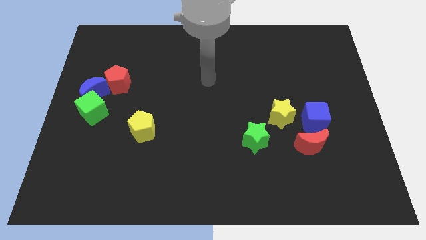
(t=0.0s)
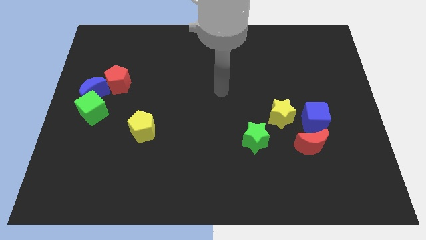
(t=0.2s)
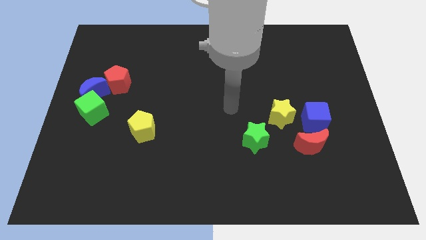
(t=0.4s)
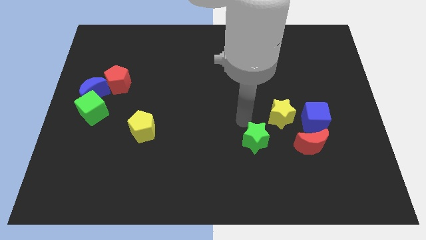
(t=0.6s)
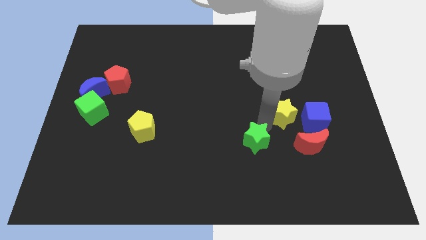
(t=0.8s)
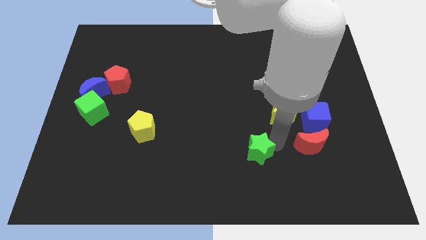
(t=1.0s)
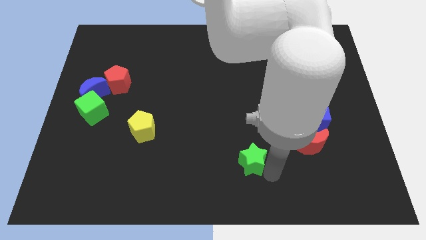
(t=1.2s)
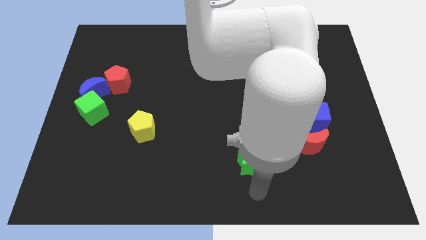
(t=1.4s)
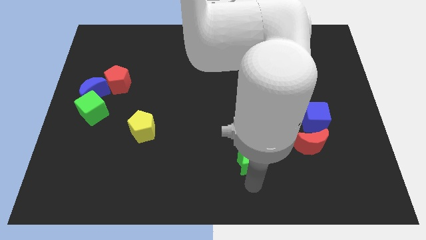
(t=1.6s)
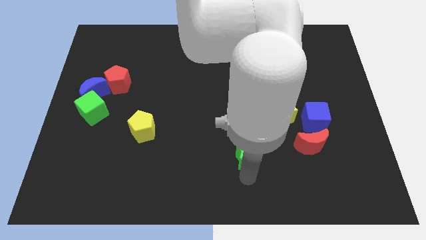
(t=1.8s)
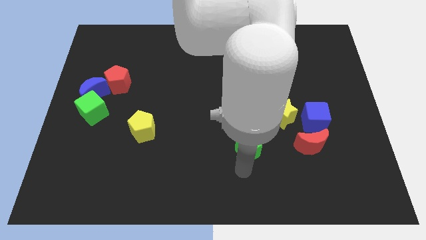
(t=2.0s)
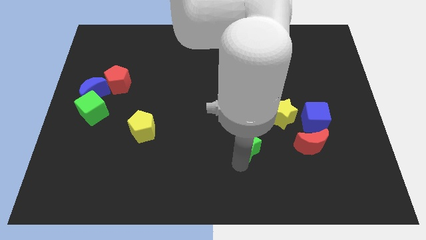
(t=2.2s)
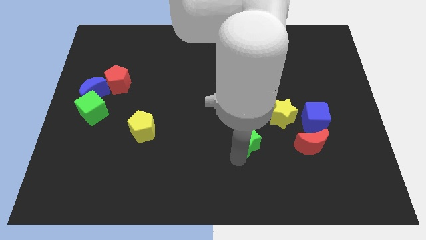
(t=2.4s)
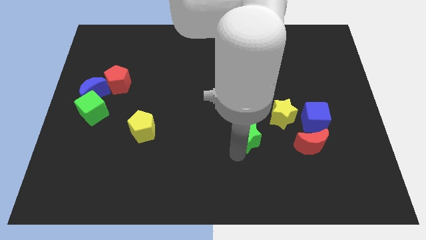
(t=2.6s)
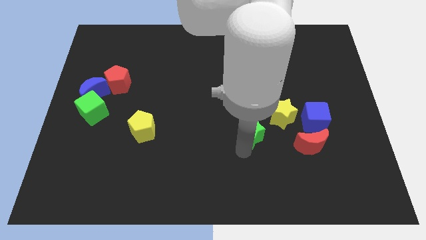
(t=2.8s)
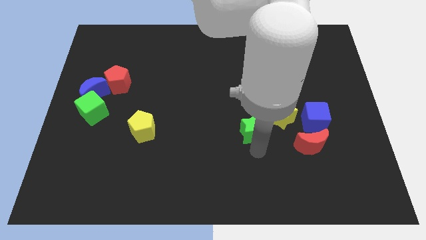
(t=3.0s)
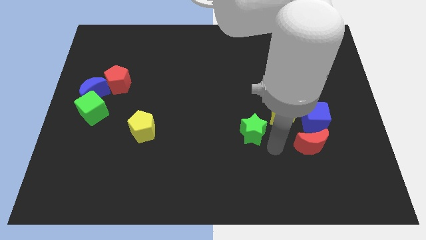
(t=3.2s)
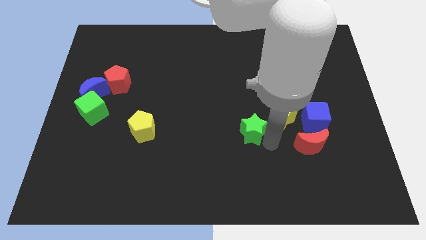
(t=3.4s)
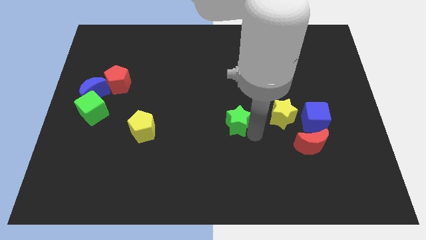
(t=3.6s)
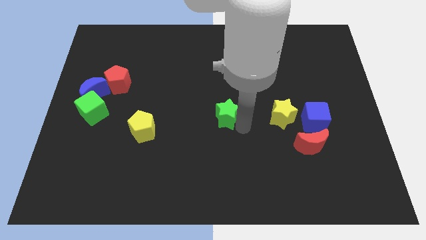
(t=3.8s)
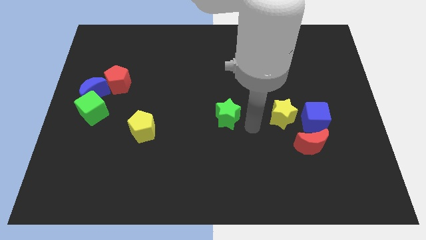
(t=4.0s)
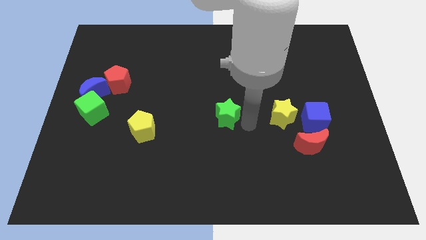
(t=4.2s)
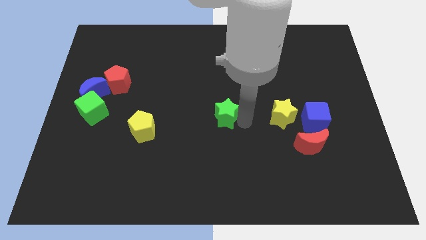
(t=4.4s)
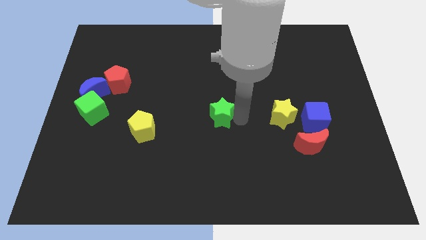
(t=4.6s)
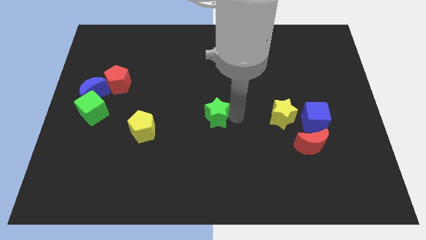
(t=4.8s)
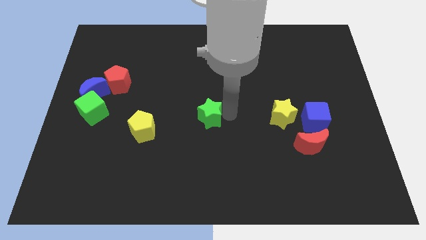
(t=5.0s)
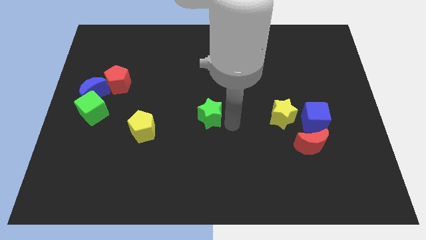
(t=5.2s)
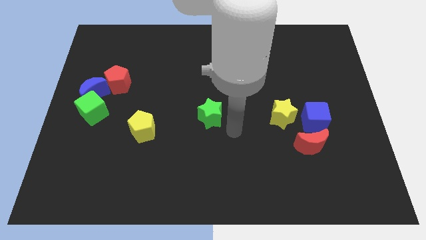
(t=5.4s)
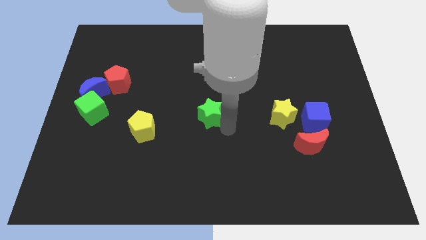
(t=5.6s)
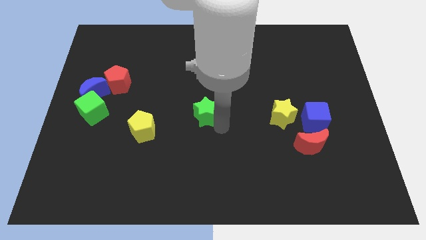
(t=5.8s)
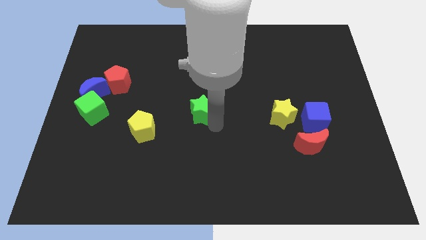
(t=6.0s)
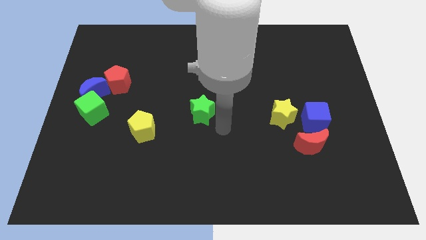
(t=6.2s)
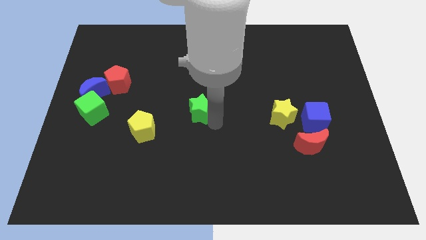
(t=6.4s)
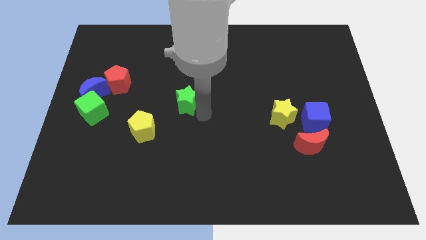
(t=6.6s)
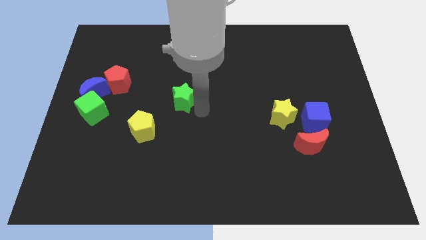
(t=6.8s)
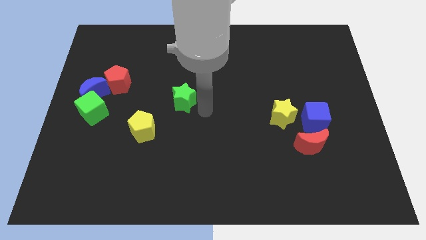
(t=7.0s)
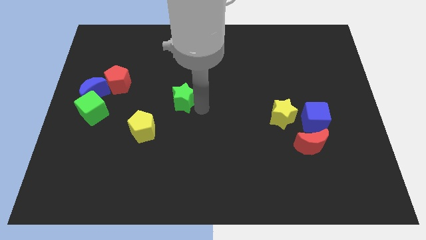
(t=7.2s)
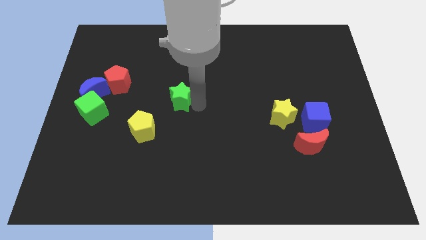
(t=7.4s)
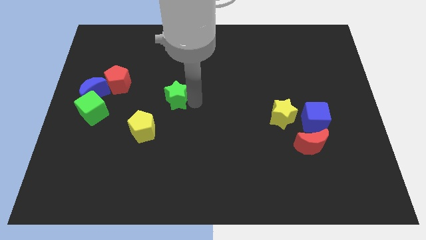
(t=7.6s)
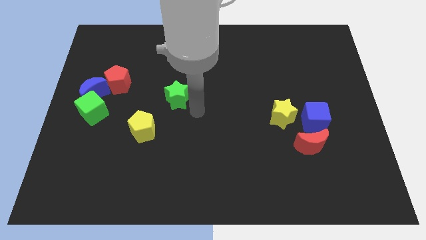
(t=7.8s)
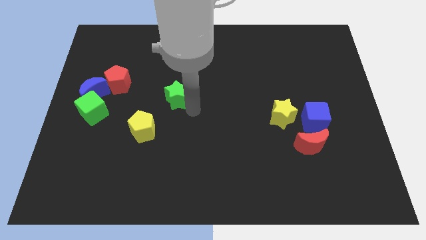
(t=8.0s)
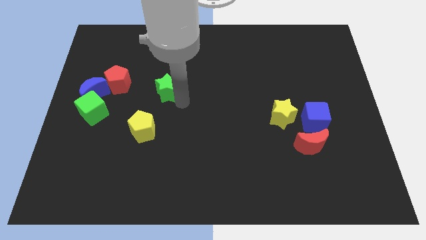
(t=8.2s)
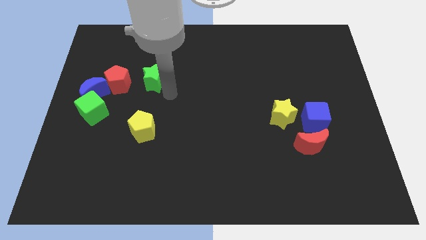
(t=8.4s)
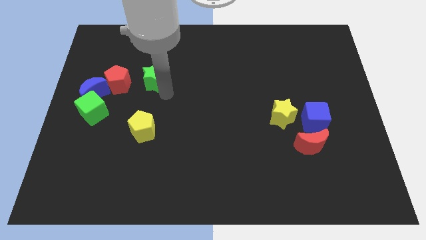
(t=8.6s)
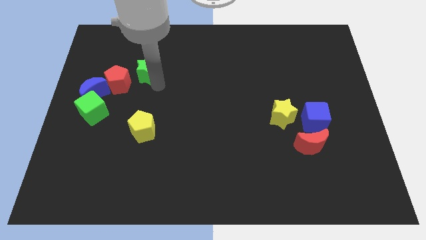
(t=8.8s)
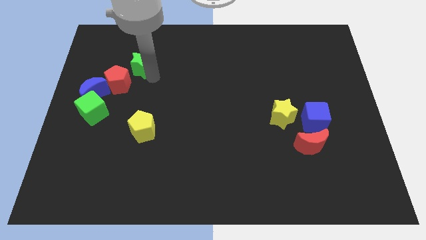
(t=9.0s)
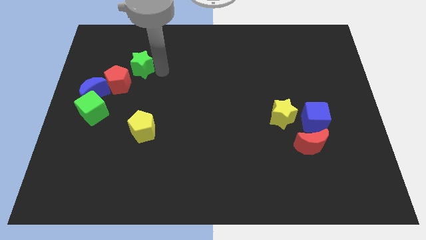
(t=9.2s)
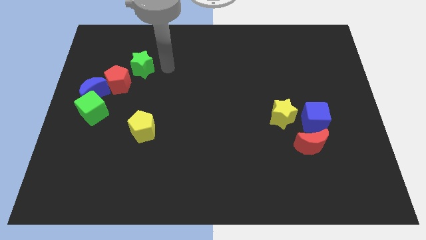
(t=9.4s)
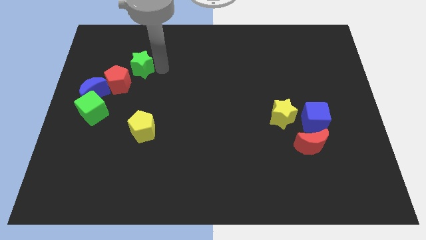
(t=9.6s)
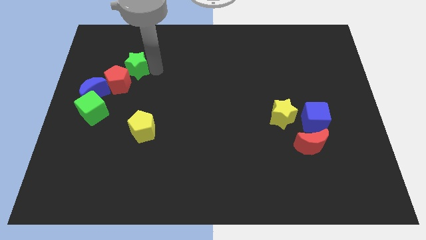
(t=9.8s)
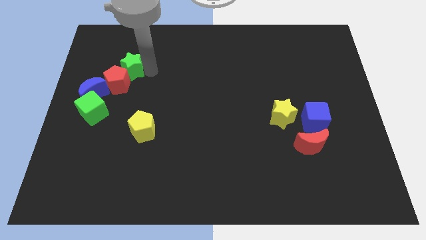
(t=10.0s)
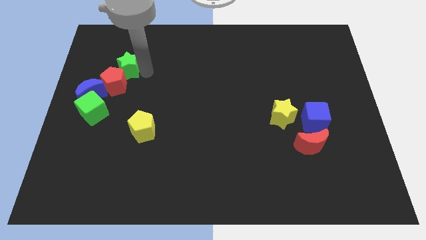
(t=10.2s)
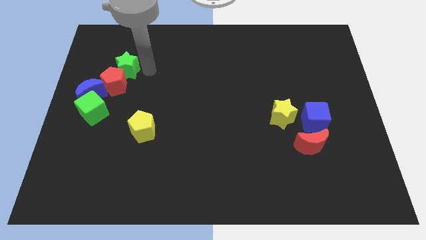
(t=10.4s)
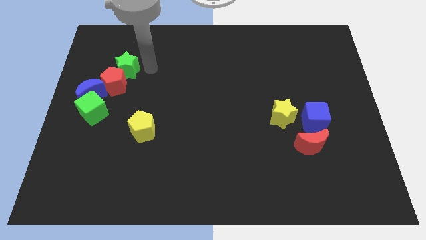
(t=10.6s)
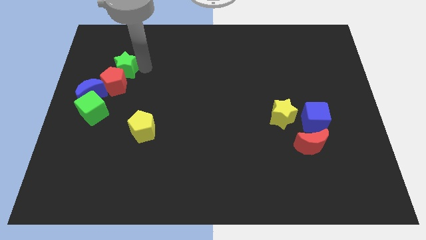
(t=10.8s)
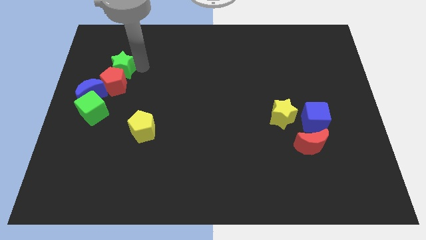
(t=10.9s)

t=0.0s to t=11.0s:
slide the green star to the top left of the red pentagon

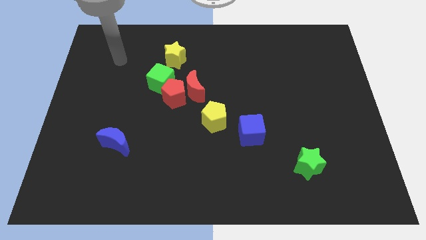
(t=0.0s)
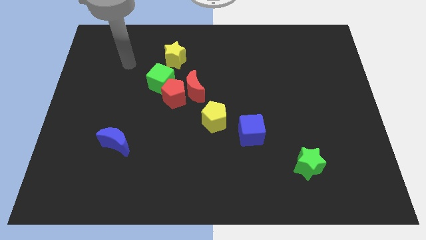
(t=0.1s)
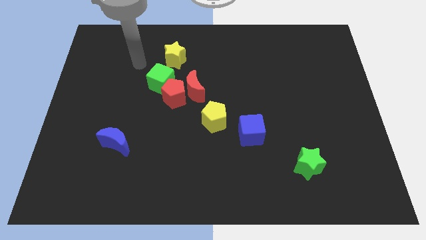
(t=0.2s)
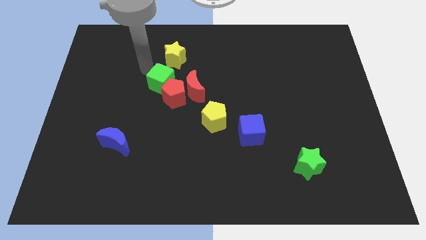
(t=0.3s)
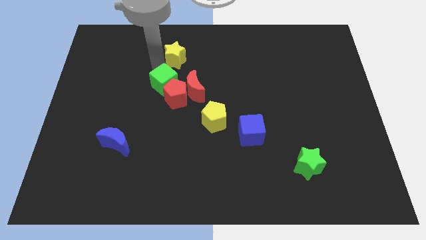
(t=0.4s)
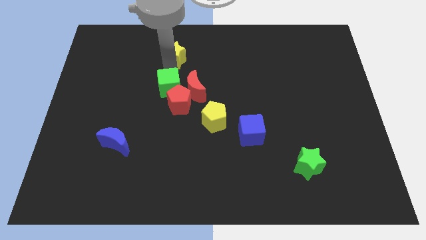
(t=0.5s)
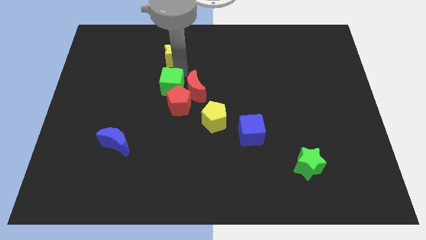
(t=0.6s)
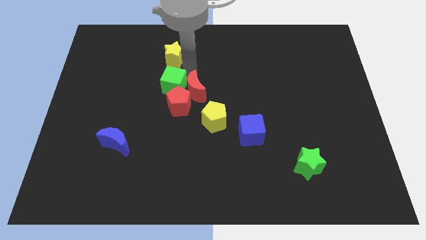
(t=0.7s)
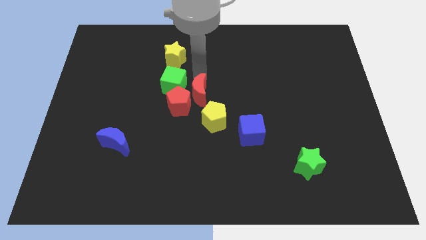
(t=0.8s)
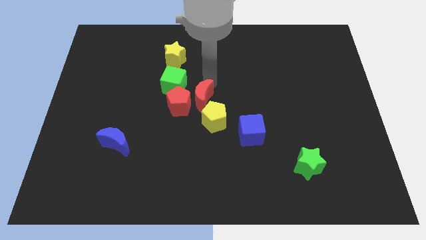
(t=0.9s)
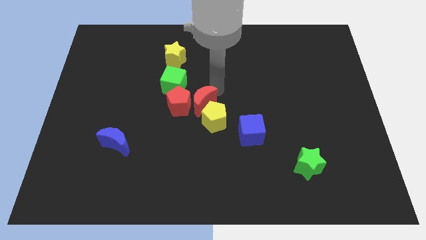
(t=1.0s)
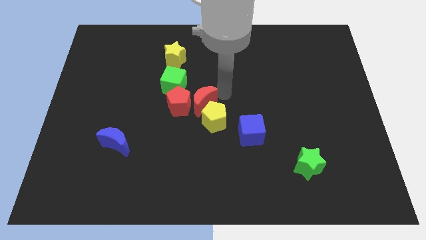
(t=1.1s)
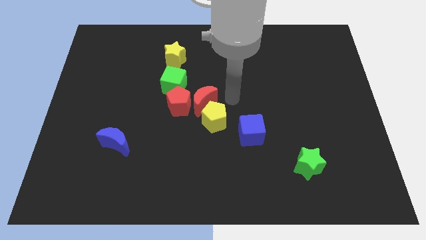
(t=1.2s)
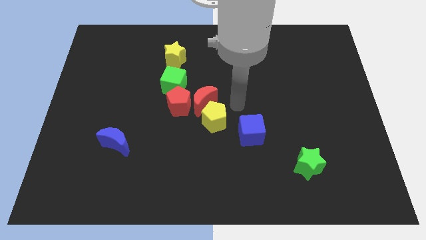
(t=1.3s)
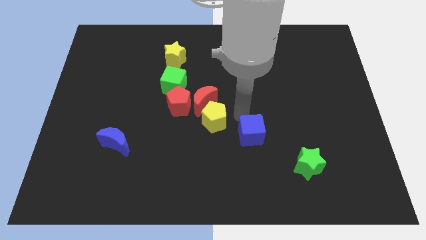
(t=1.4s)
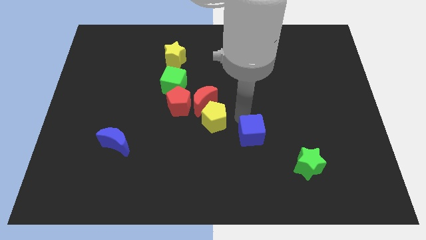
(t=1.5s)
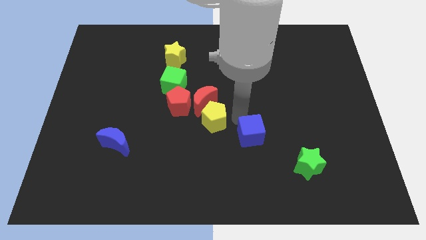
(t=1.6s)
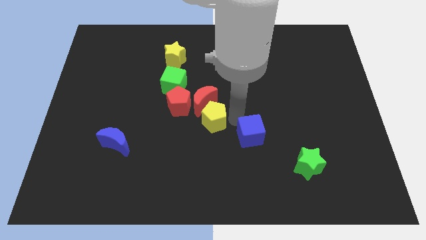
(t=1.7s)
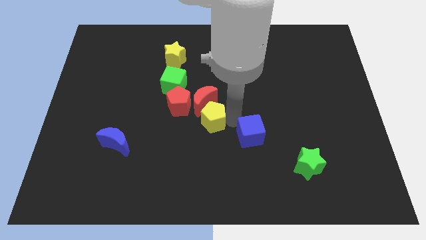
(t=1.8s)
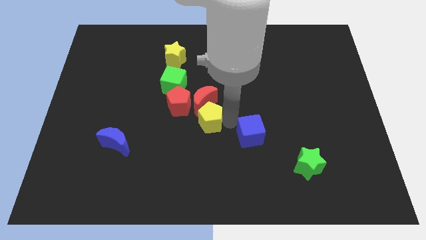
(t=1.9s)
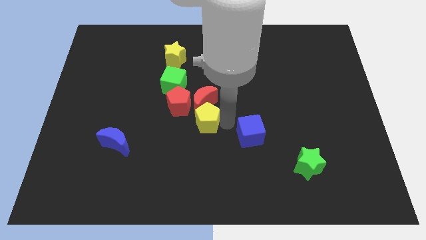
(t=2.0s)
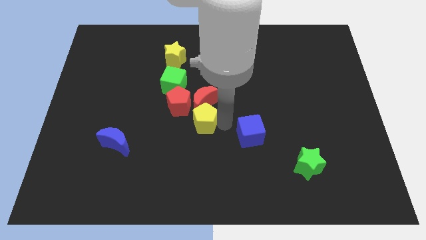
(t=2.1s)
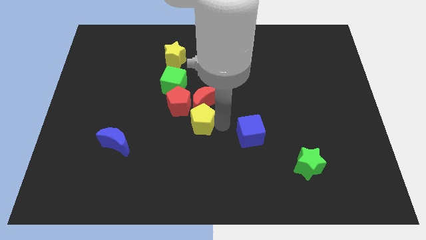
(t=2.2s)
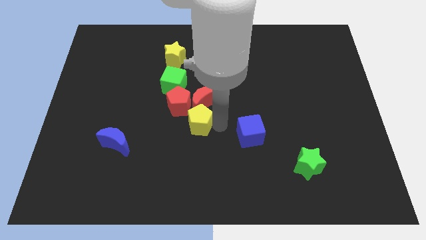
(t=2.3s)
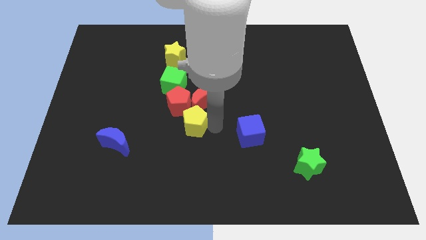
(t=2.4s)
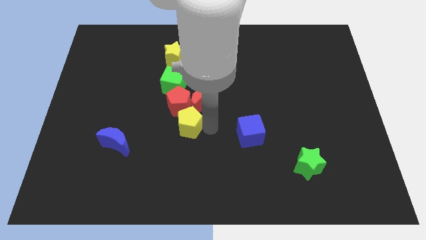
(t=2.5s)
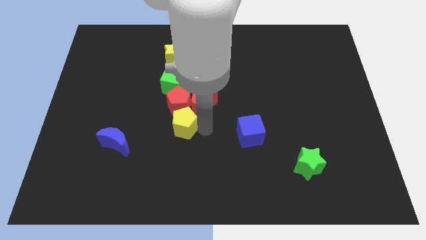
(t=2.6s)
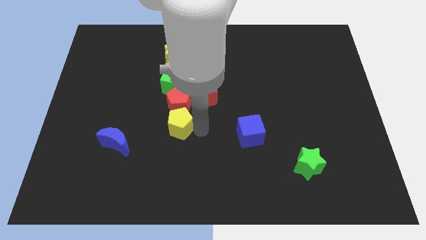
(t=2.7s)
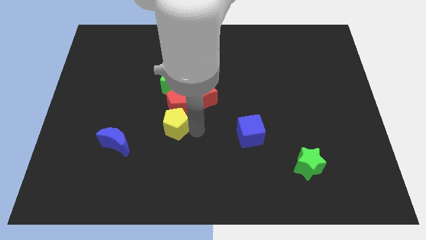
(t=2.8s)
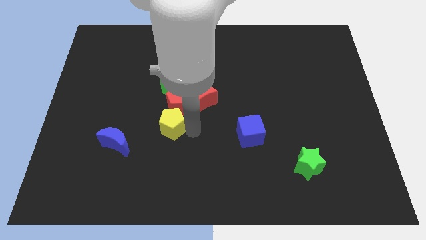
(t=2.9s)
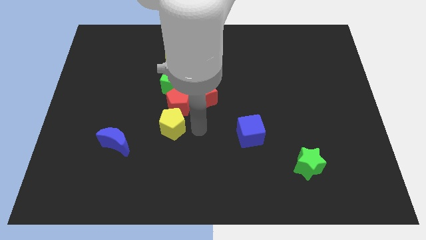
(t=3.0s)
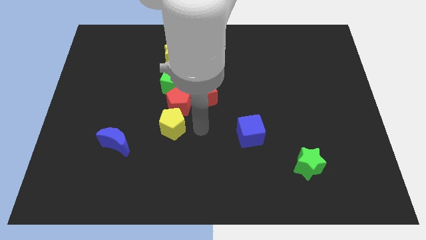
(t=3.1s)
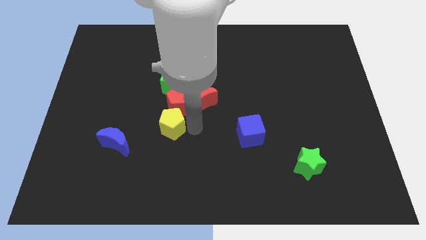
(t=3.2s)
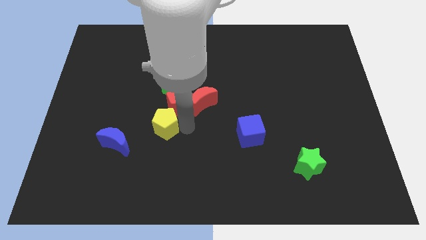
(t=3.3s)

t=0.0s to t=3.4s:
put the yellow pentagon diagonally up and to the right of the blue moon
